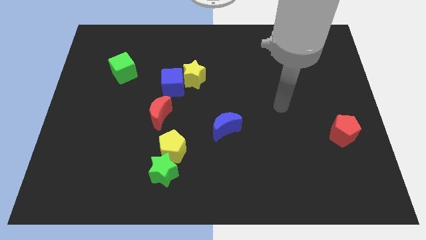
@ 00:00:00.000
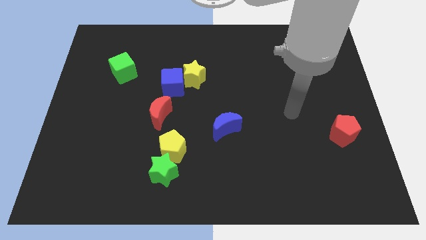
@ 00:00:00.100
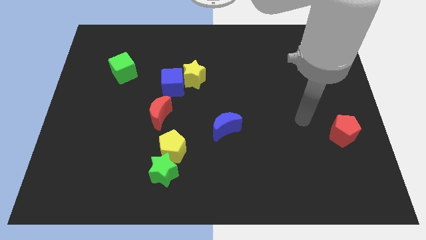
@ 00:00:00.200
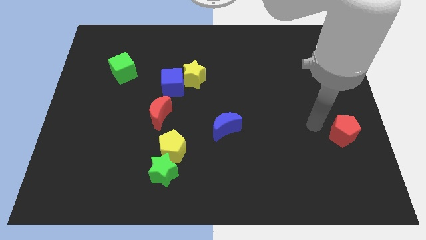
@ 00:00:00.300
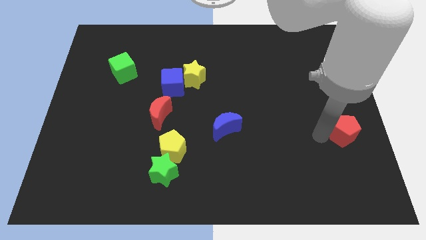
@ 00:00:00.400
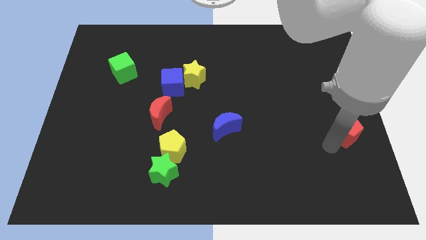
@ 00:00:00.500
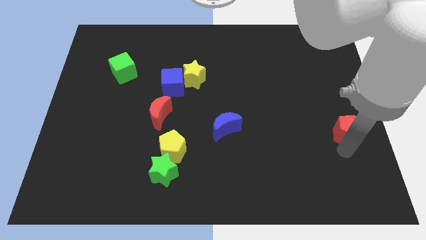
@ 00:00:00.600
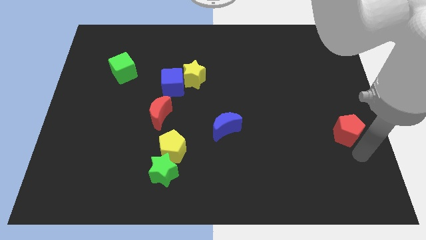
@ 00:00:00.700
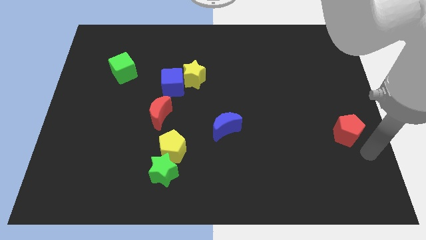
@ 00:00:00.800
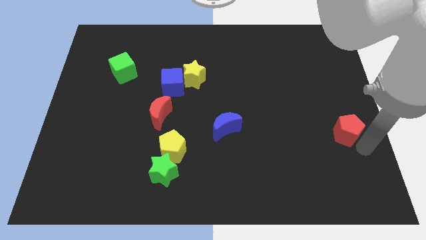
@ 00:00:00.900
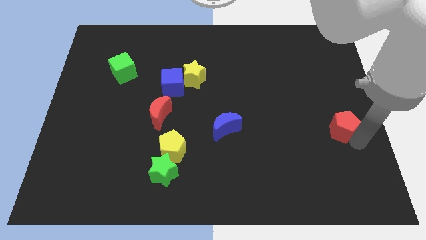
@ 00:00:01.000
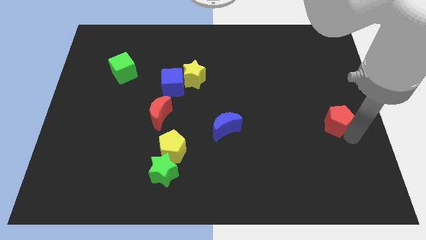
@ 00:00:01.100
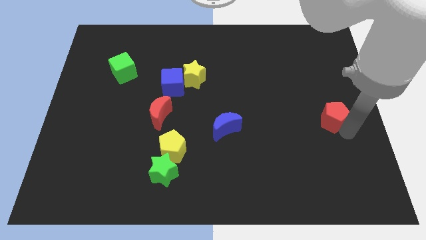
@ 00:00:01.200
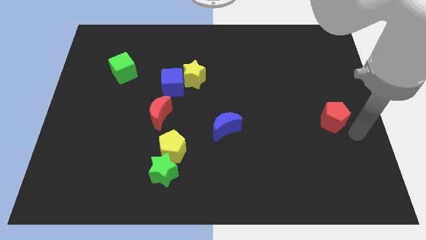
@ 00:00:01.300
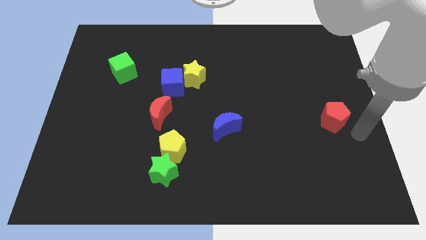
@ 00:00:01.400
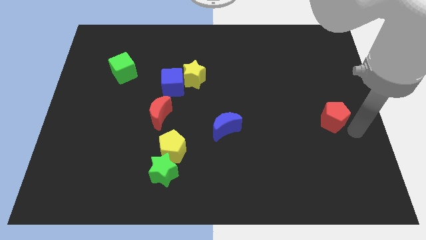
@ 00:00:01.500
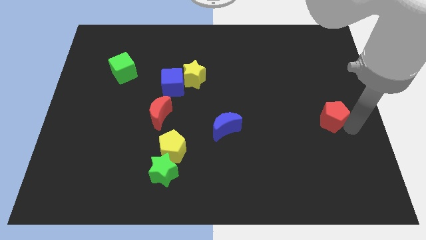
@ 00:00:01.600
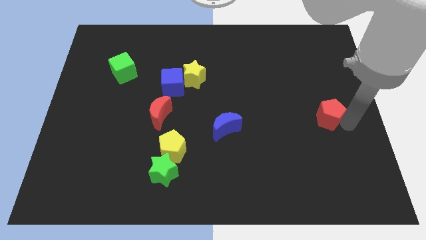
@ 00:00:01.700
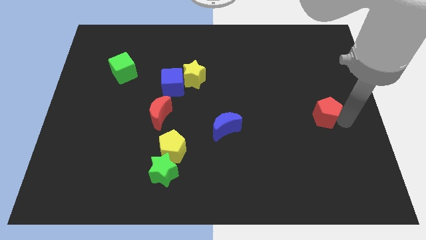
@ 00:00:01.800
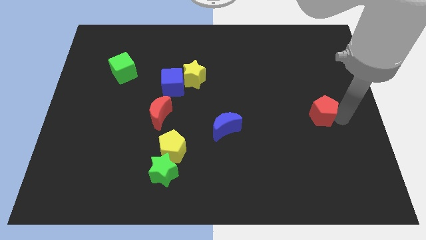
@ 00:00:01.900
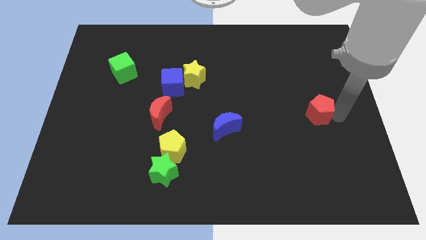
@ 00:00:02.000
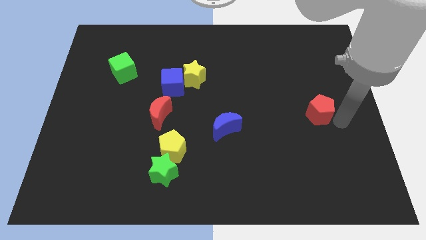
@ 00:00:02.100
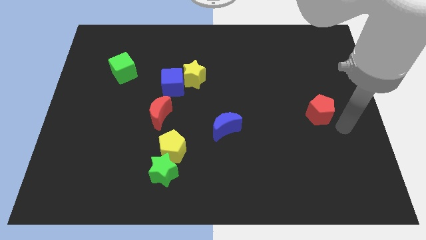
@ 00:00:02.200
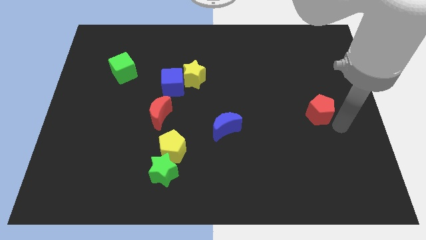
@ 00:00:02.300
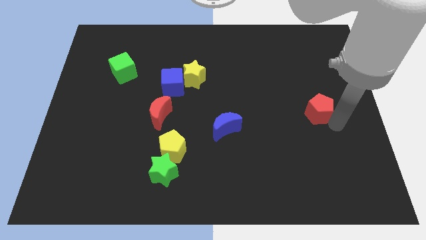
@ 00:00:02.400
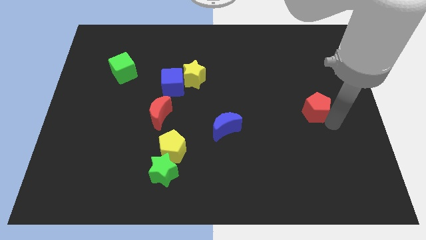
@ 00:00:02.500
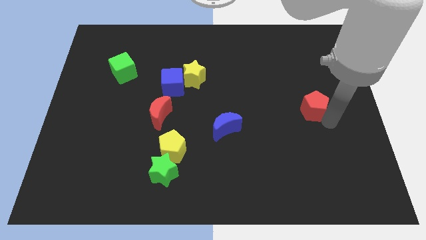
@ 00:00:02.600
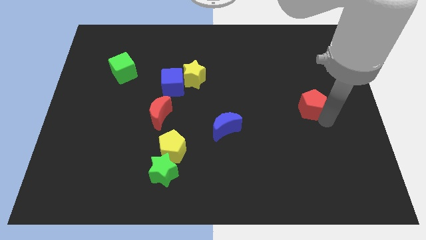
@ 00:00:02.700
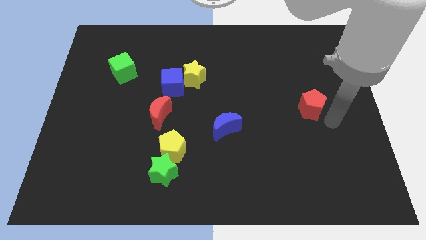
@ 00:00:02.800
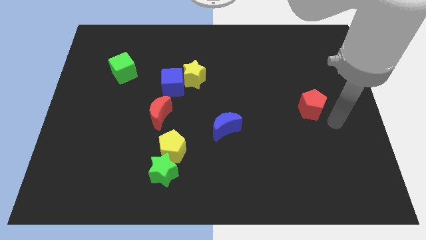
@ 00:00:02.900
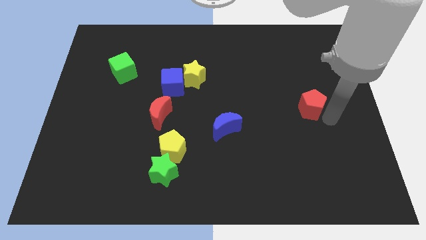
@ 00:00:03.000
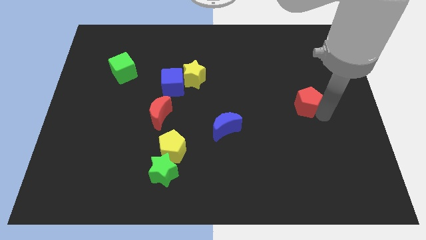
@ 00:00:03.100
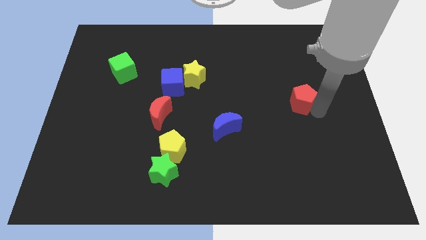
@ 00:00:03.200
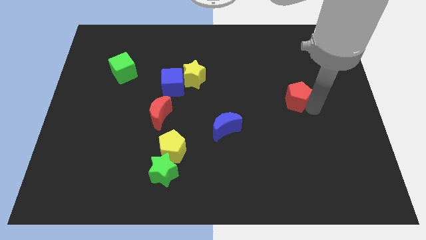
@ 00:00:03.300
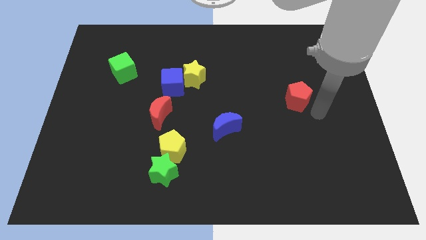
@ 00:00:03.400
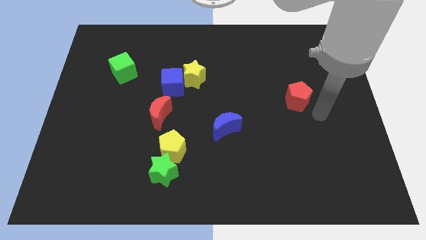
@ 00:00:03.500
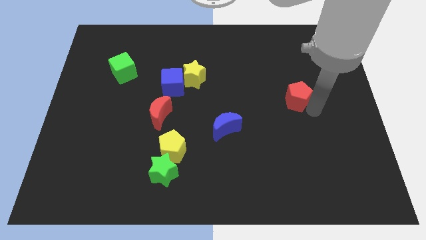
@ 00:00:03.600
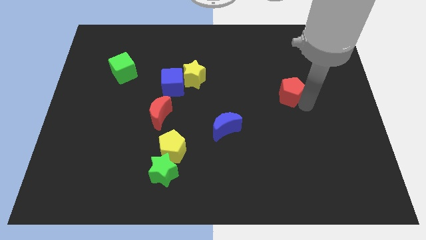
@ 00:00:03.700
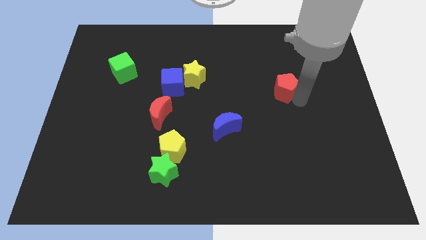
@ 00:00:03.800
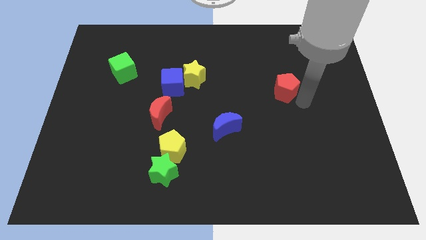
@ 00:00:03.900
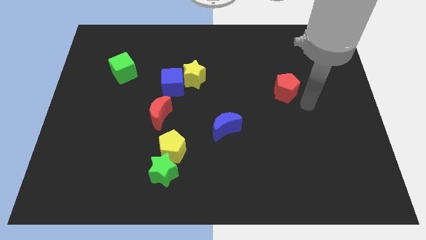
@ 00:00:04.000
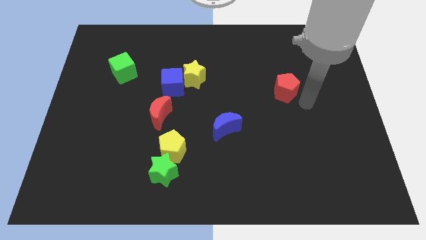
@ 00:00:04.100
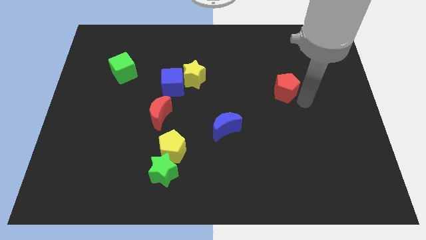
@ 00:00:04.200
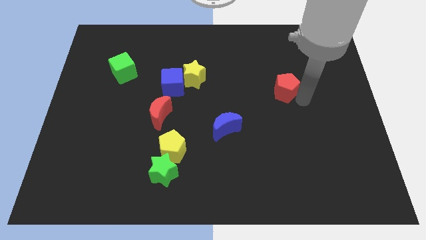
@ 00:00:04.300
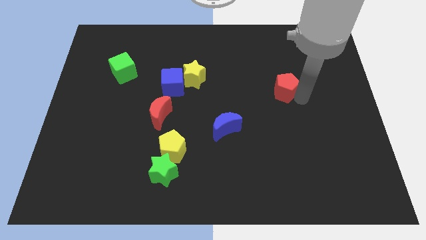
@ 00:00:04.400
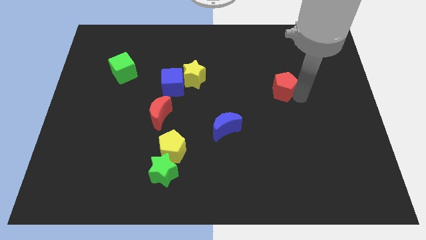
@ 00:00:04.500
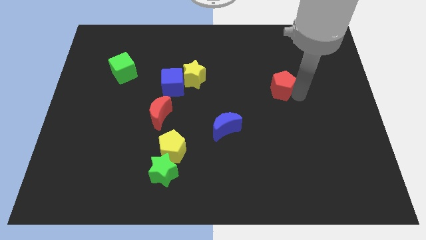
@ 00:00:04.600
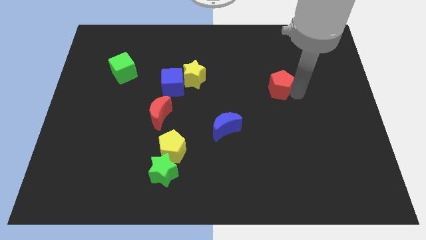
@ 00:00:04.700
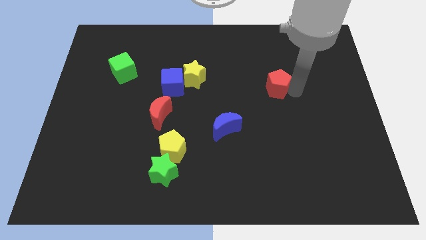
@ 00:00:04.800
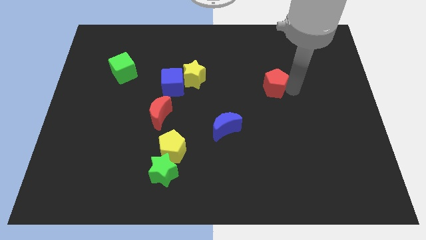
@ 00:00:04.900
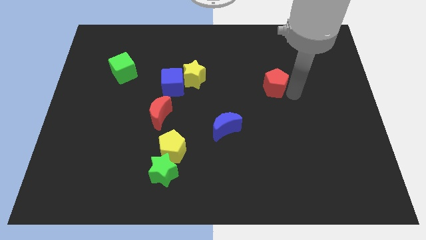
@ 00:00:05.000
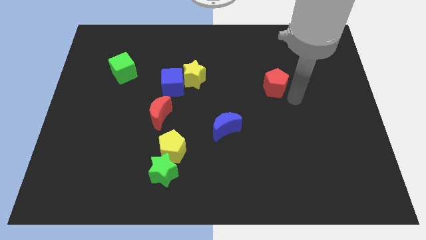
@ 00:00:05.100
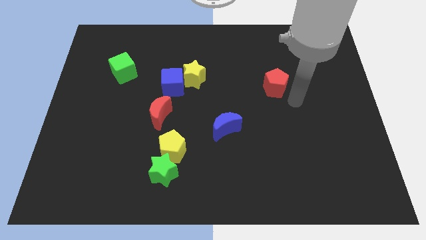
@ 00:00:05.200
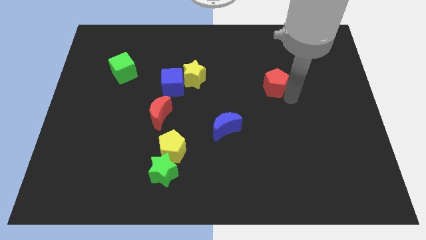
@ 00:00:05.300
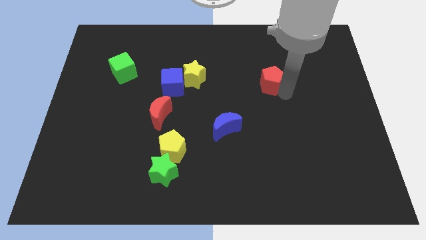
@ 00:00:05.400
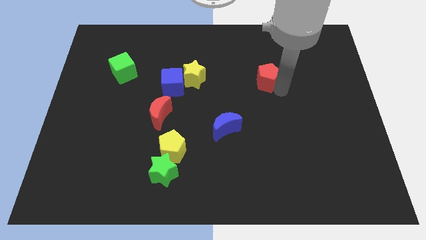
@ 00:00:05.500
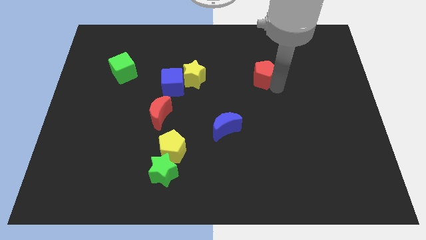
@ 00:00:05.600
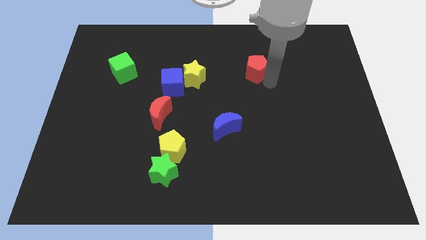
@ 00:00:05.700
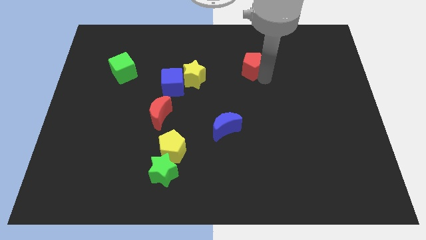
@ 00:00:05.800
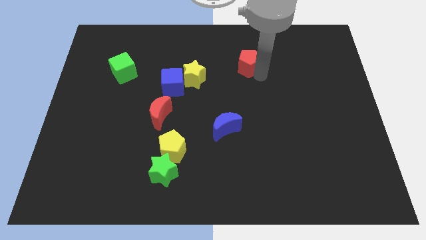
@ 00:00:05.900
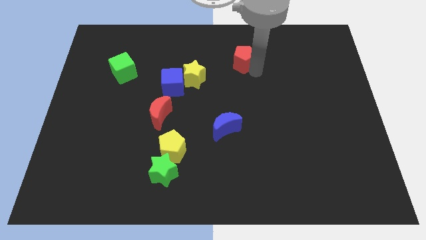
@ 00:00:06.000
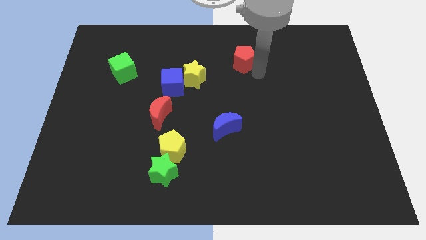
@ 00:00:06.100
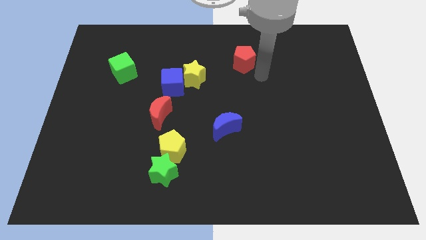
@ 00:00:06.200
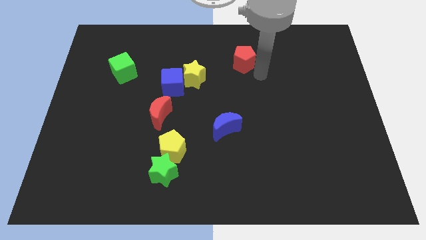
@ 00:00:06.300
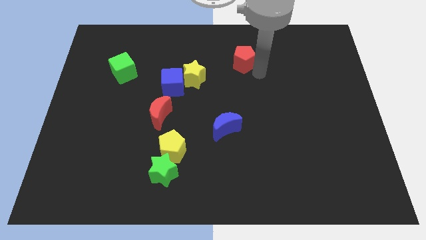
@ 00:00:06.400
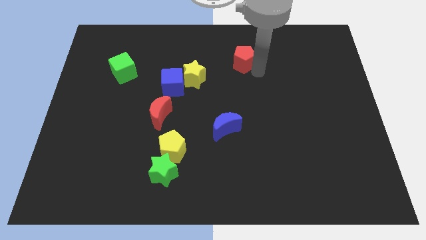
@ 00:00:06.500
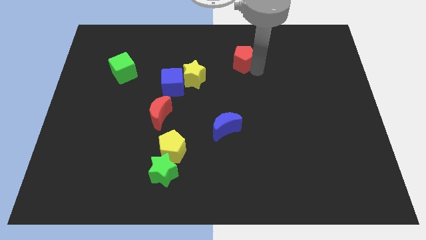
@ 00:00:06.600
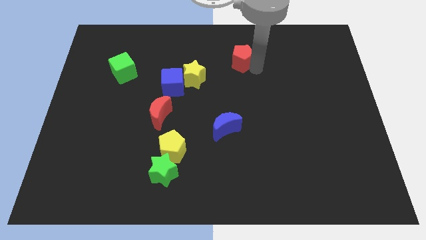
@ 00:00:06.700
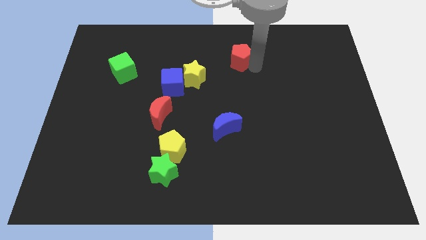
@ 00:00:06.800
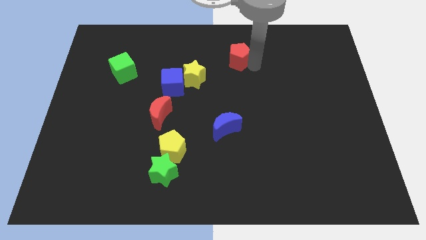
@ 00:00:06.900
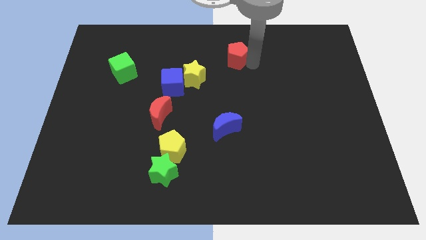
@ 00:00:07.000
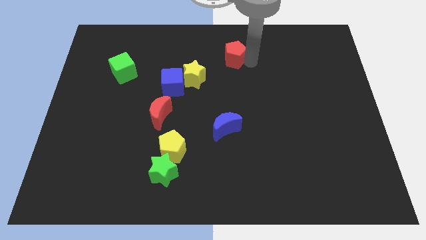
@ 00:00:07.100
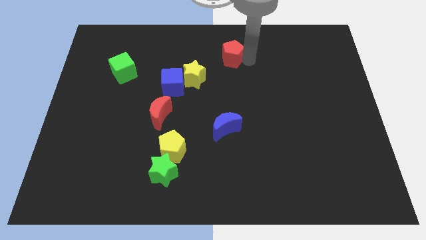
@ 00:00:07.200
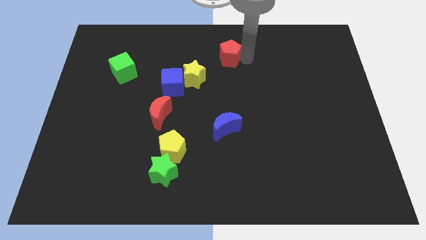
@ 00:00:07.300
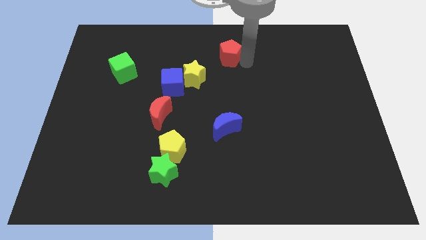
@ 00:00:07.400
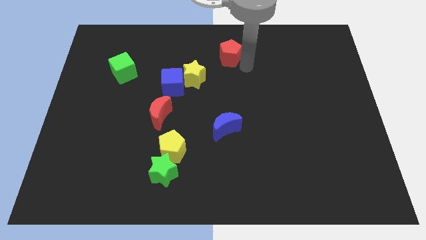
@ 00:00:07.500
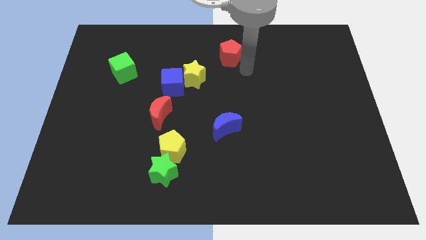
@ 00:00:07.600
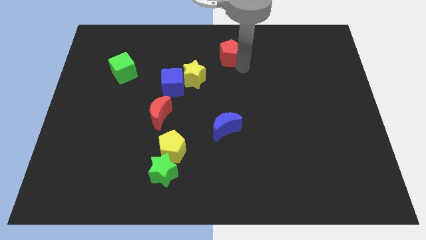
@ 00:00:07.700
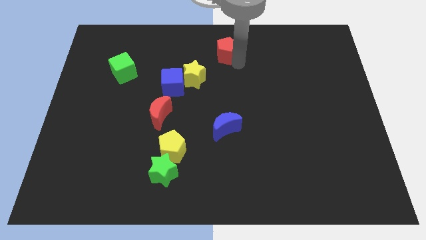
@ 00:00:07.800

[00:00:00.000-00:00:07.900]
slide the red pentagon to the top
